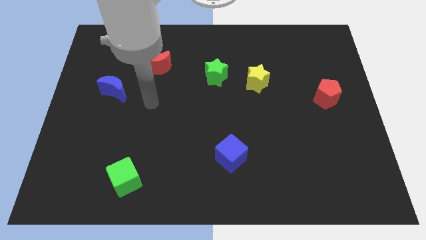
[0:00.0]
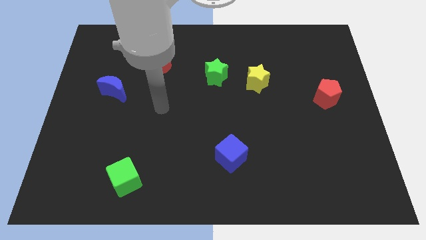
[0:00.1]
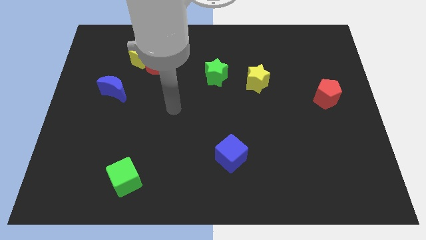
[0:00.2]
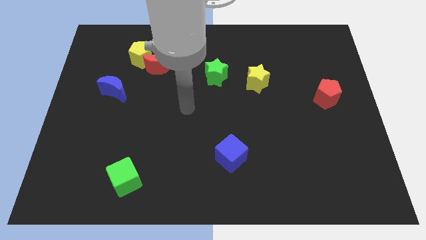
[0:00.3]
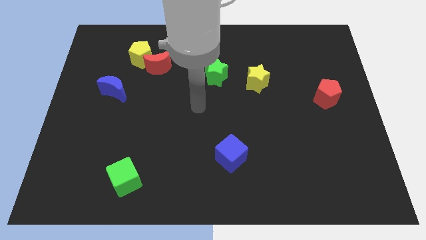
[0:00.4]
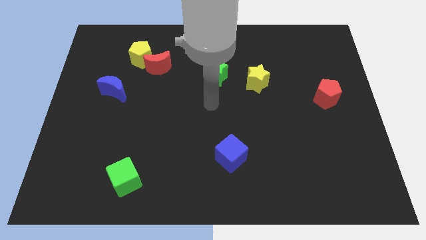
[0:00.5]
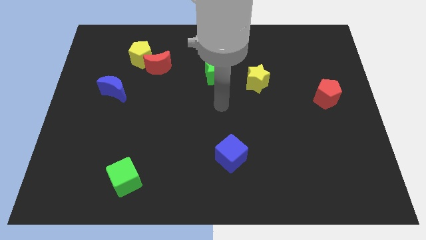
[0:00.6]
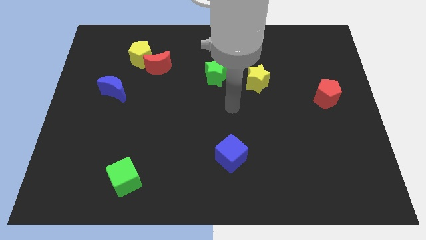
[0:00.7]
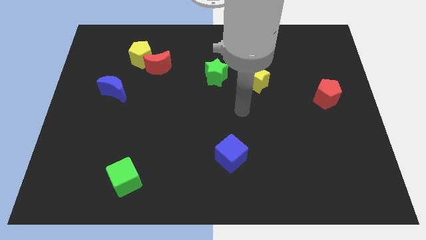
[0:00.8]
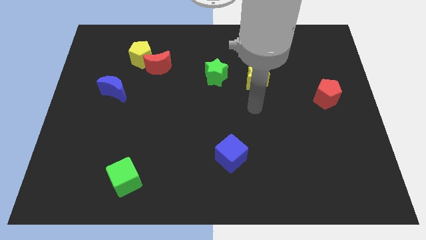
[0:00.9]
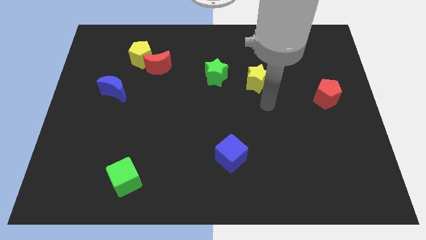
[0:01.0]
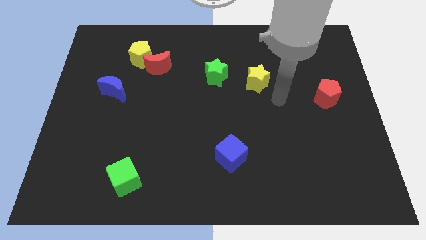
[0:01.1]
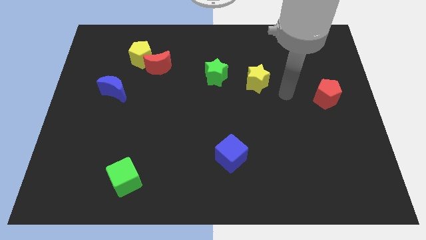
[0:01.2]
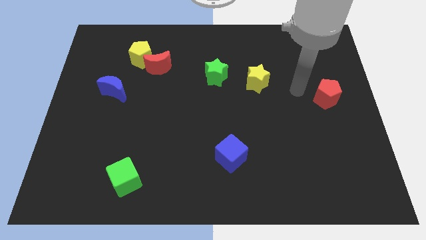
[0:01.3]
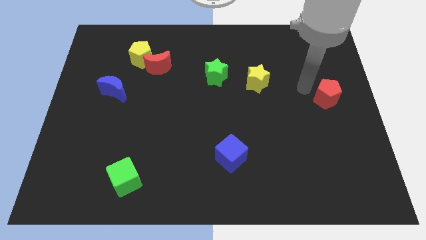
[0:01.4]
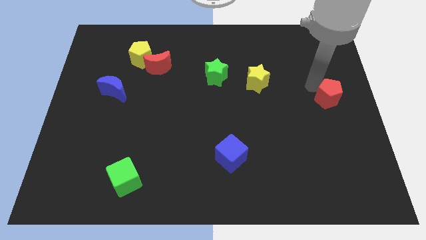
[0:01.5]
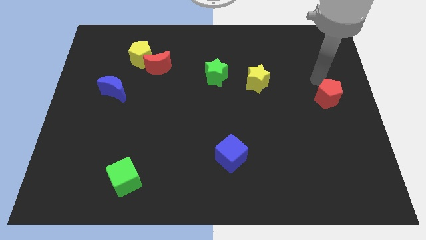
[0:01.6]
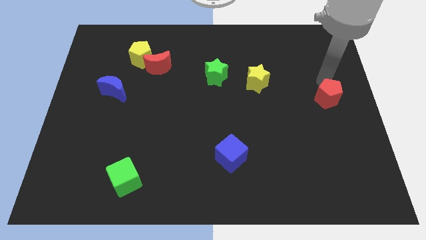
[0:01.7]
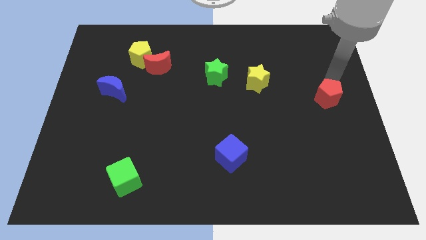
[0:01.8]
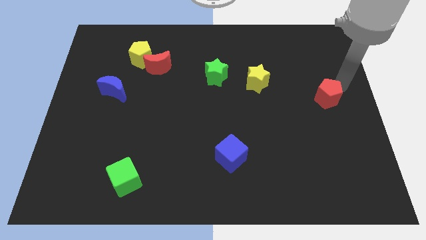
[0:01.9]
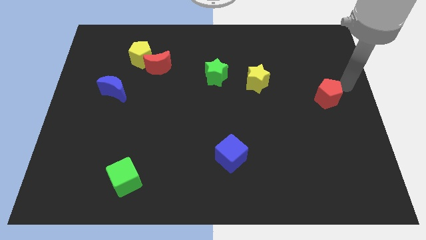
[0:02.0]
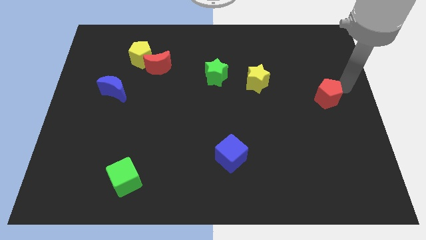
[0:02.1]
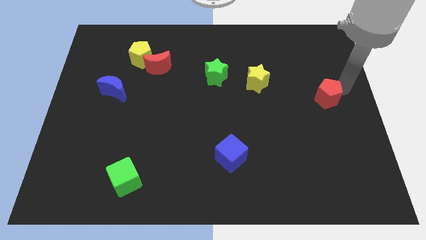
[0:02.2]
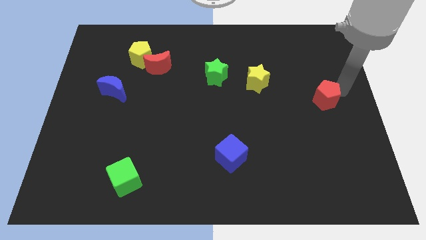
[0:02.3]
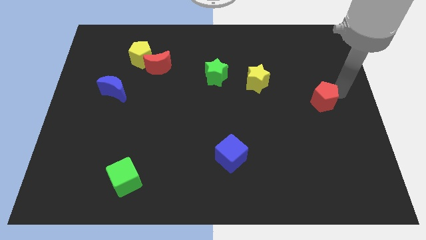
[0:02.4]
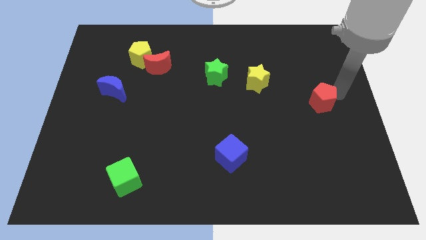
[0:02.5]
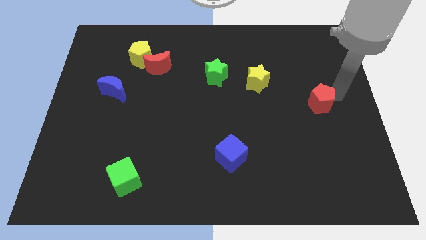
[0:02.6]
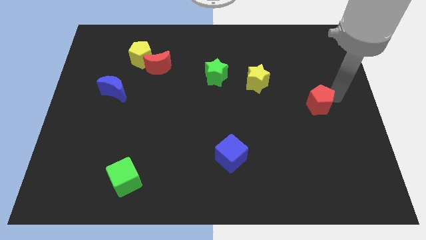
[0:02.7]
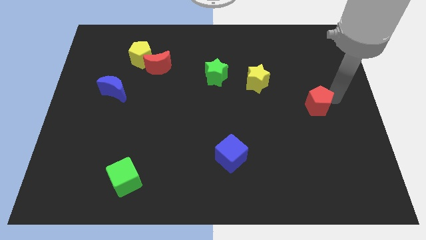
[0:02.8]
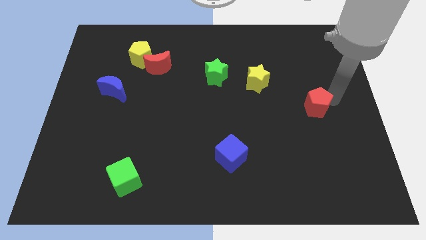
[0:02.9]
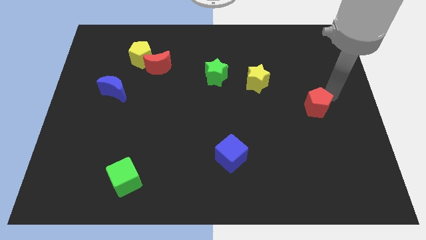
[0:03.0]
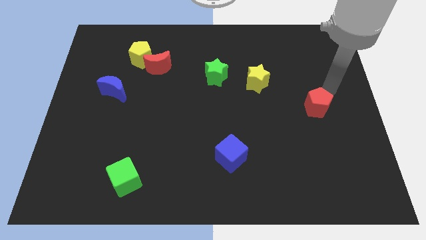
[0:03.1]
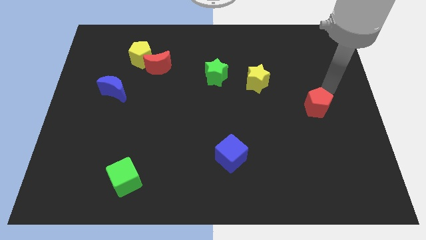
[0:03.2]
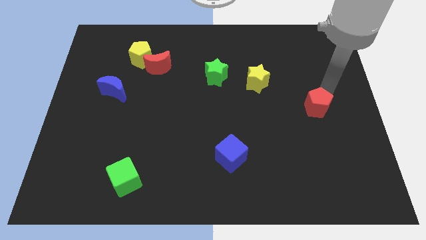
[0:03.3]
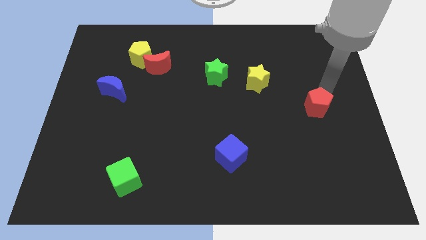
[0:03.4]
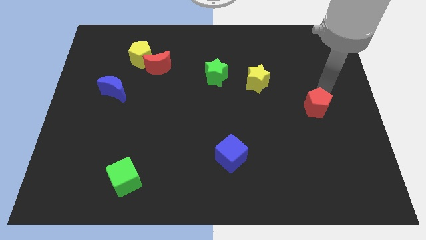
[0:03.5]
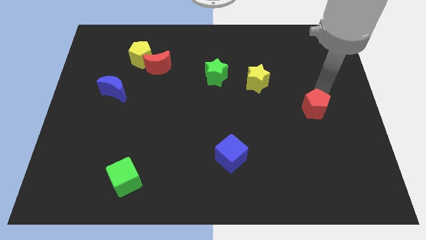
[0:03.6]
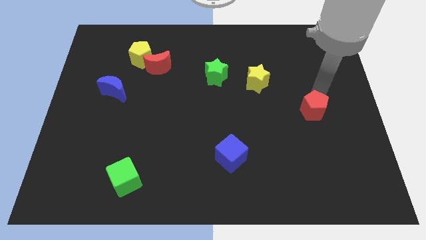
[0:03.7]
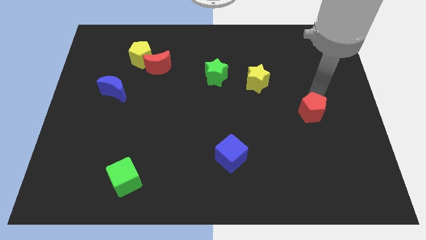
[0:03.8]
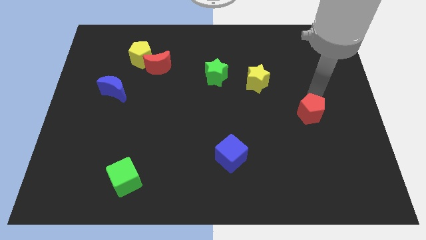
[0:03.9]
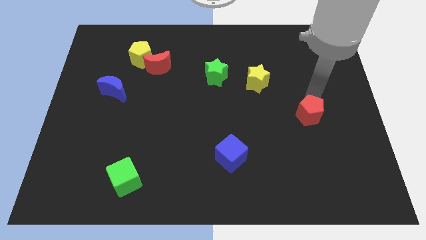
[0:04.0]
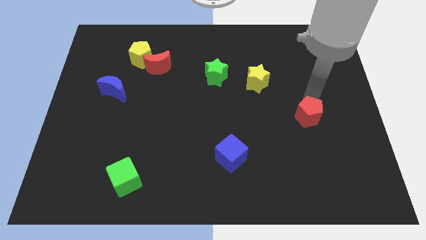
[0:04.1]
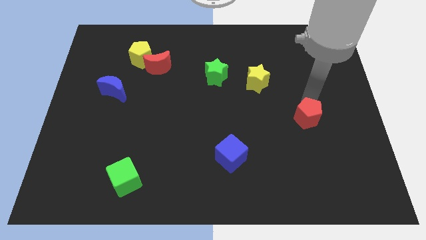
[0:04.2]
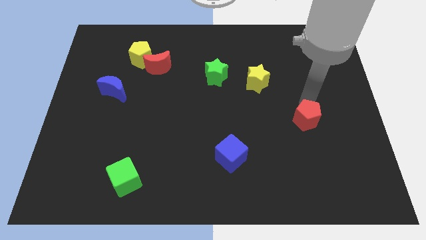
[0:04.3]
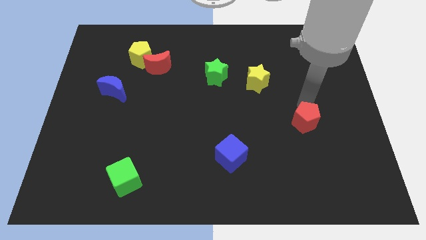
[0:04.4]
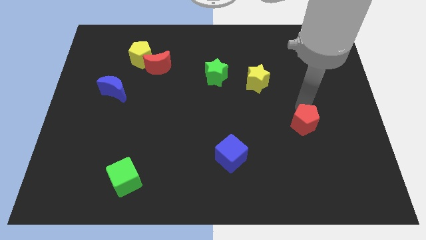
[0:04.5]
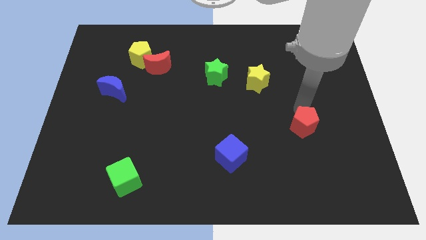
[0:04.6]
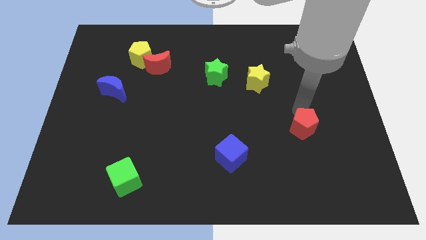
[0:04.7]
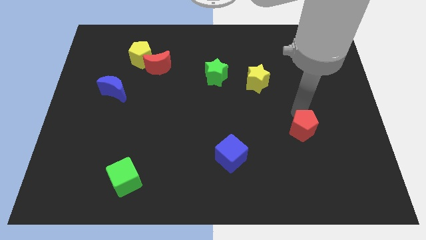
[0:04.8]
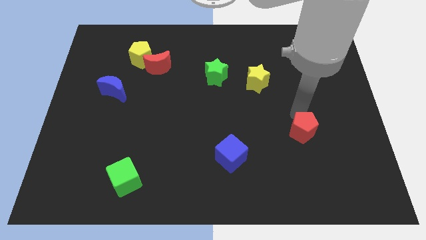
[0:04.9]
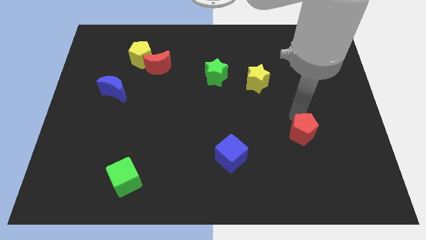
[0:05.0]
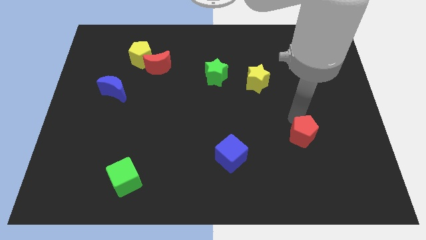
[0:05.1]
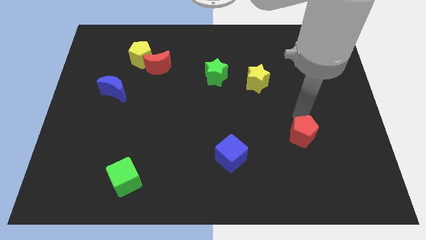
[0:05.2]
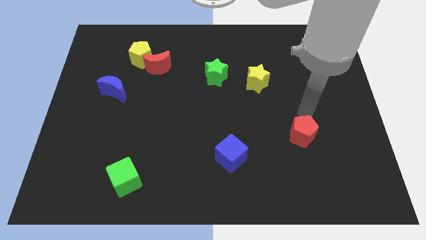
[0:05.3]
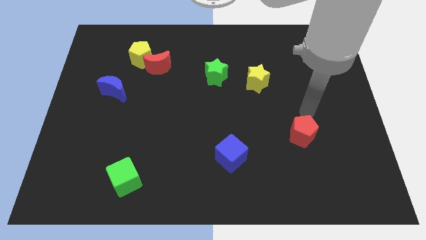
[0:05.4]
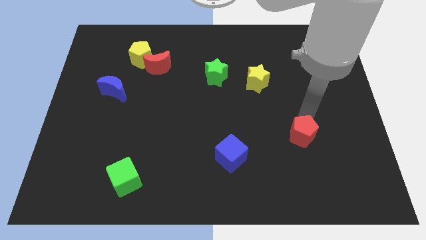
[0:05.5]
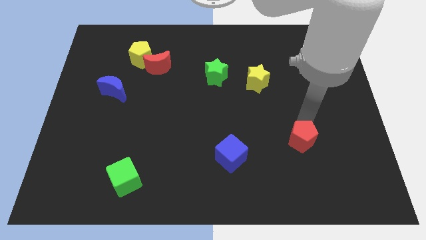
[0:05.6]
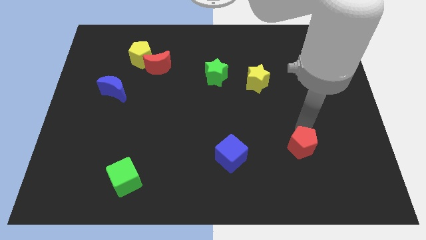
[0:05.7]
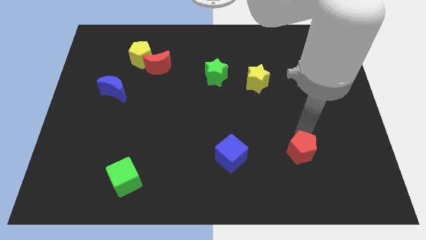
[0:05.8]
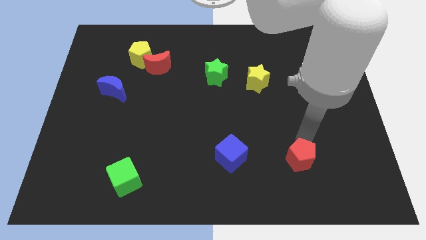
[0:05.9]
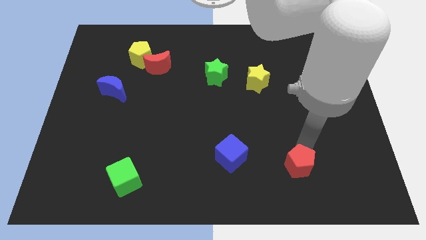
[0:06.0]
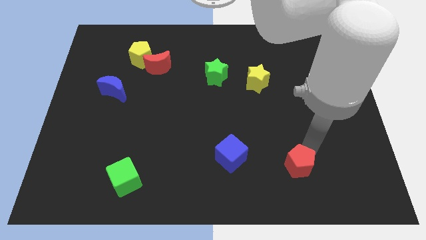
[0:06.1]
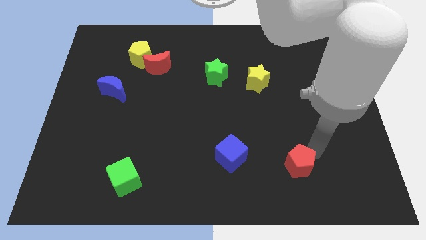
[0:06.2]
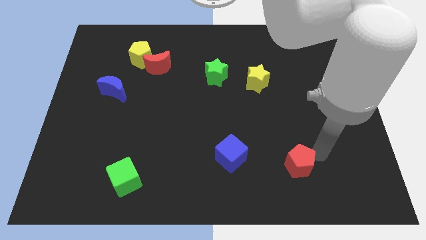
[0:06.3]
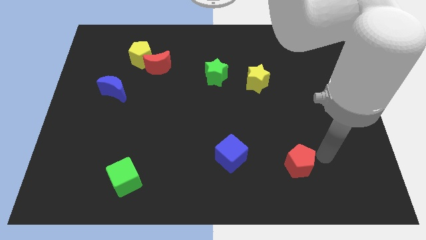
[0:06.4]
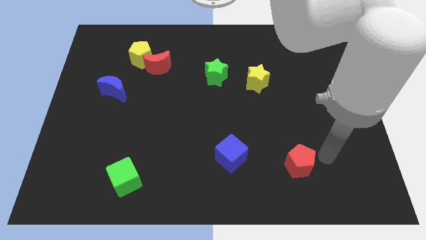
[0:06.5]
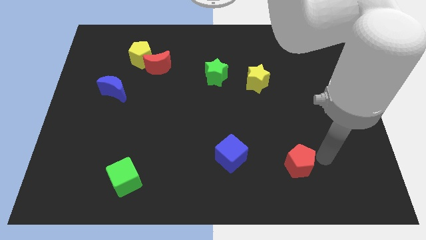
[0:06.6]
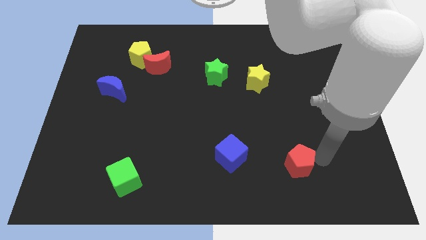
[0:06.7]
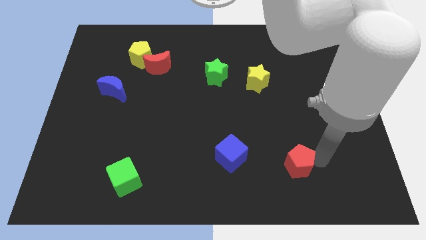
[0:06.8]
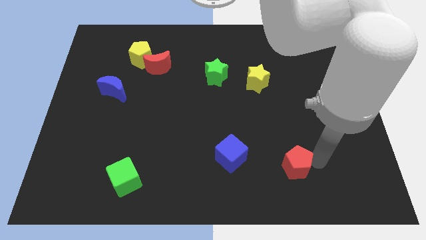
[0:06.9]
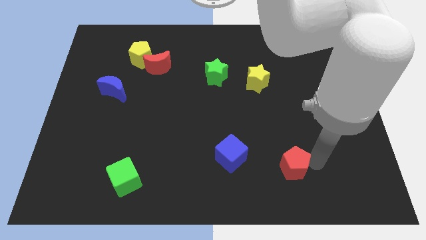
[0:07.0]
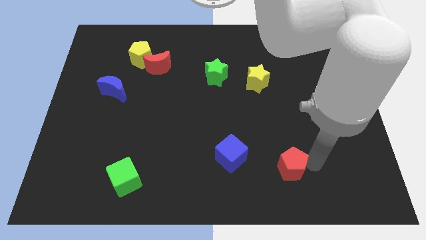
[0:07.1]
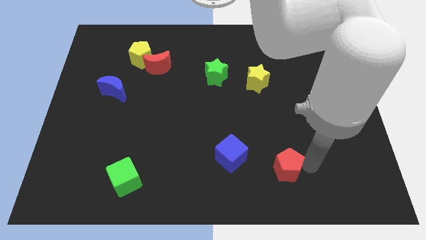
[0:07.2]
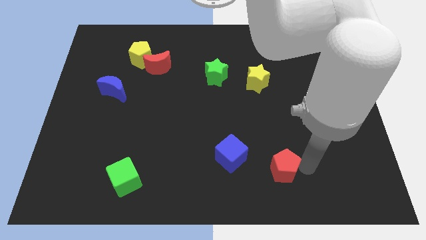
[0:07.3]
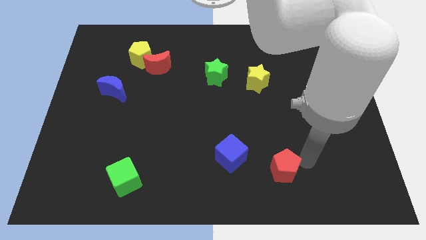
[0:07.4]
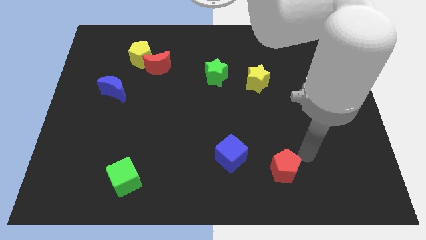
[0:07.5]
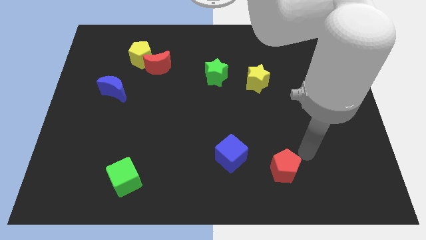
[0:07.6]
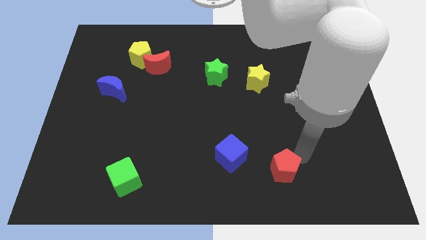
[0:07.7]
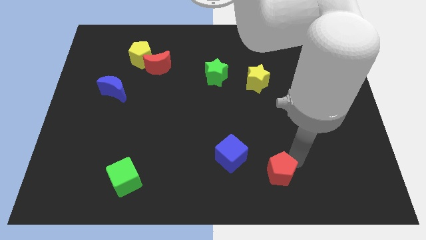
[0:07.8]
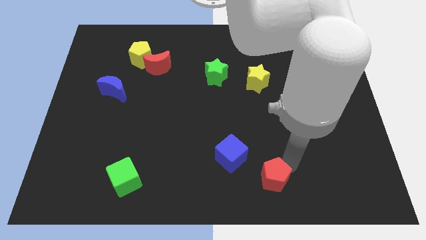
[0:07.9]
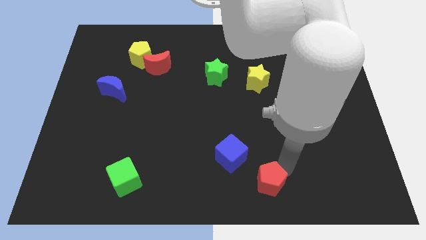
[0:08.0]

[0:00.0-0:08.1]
put the red pentagon to the bottom
